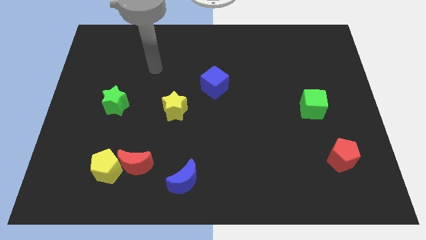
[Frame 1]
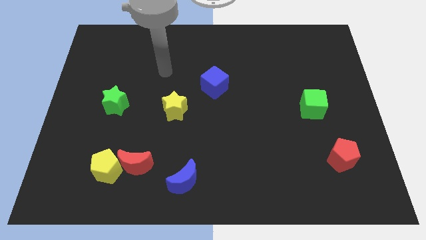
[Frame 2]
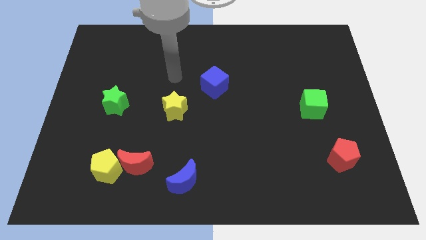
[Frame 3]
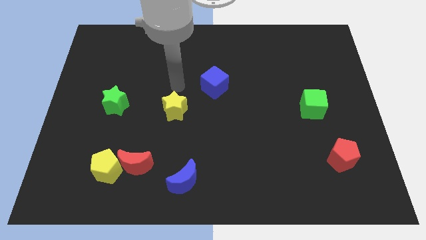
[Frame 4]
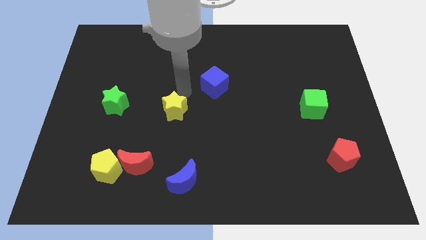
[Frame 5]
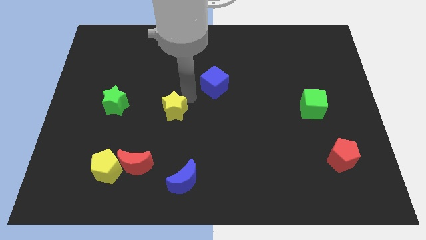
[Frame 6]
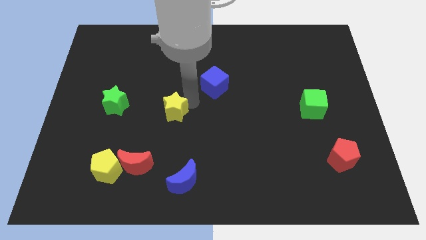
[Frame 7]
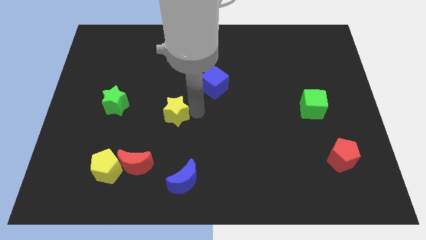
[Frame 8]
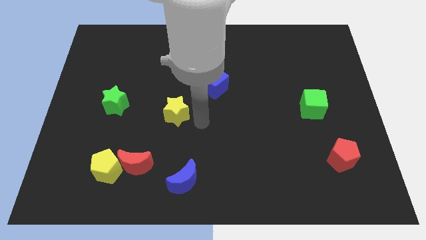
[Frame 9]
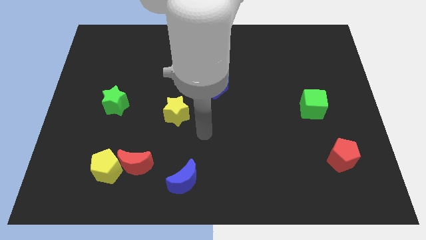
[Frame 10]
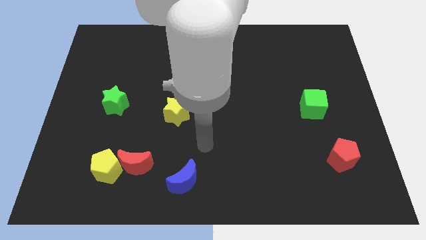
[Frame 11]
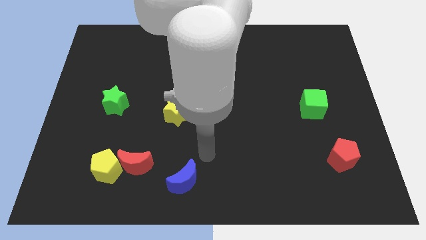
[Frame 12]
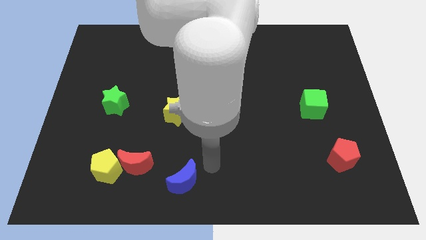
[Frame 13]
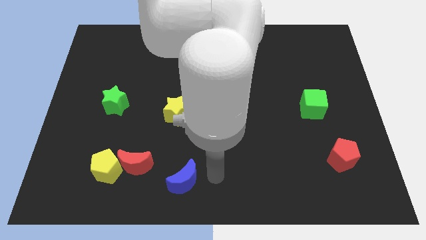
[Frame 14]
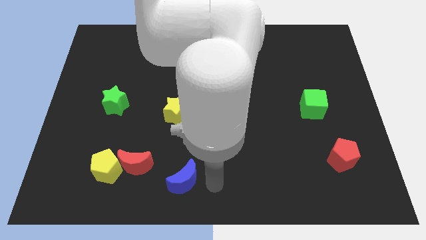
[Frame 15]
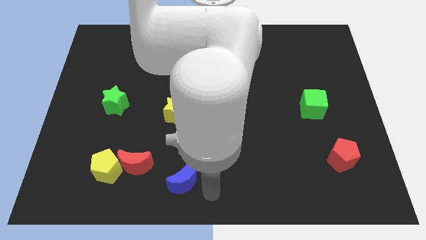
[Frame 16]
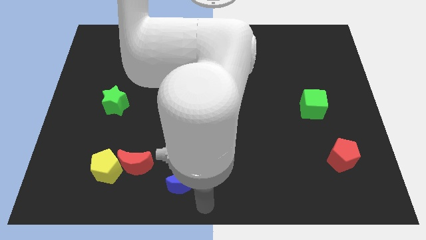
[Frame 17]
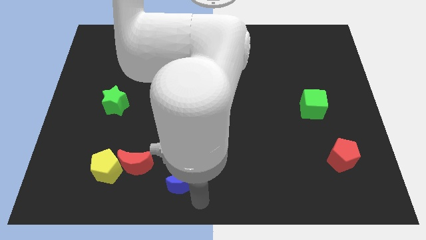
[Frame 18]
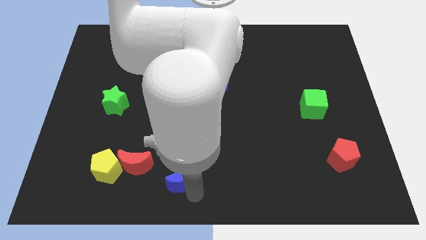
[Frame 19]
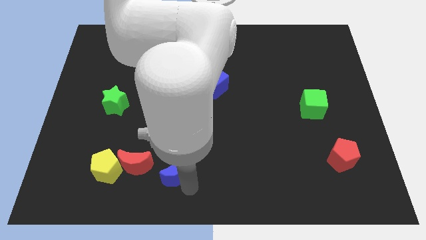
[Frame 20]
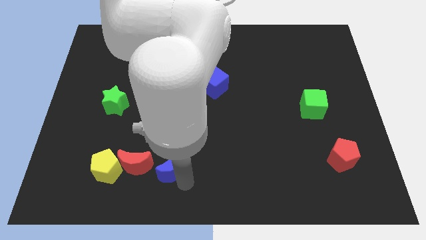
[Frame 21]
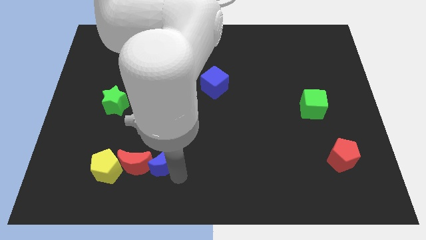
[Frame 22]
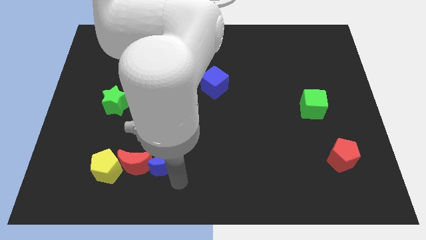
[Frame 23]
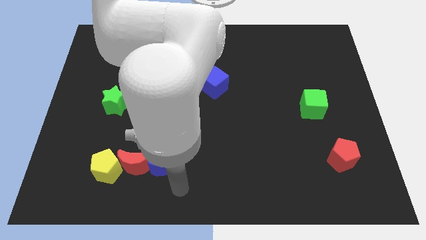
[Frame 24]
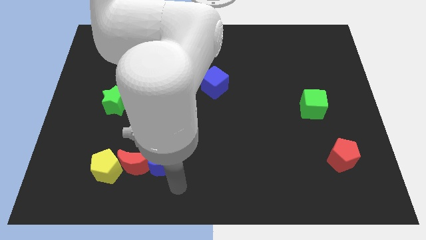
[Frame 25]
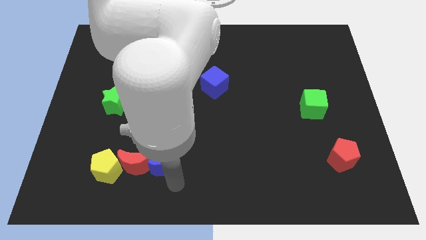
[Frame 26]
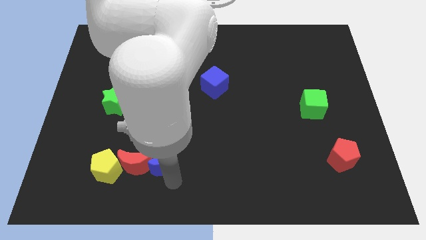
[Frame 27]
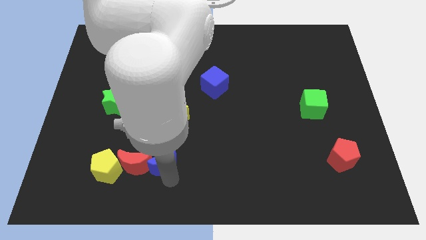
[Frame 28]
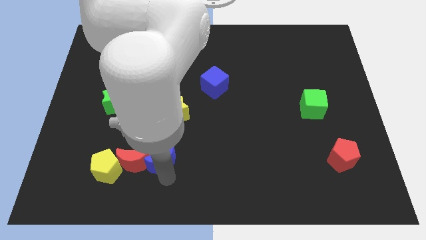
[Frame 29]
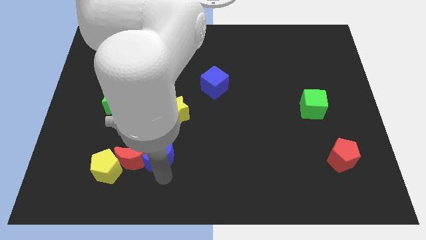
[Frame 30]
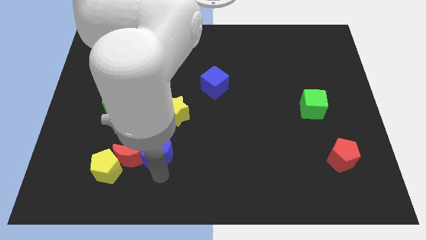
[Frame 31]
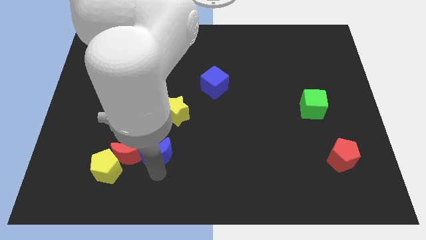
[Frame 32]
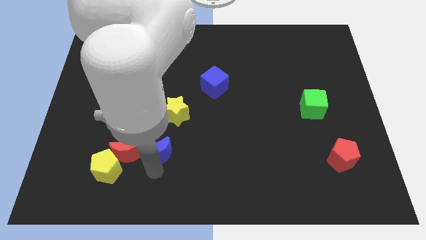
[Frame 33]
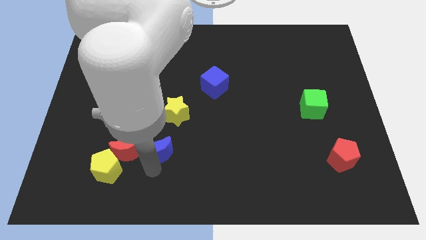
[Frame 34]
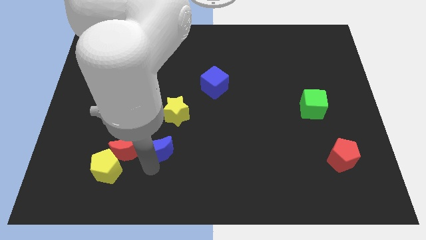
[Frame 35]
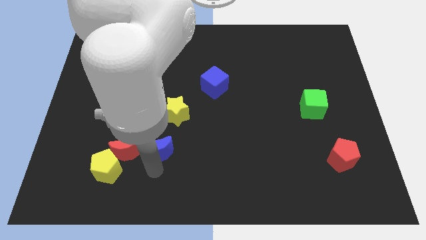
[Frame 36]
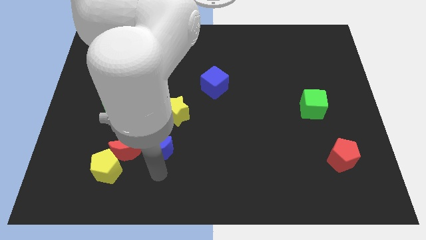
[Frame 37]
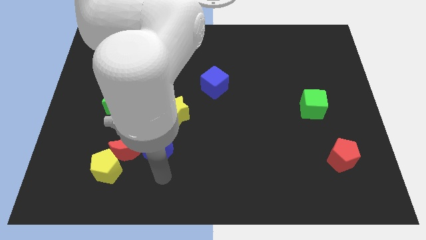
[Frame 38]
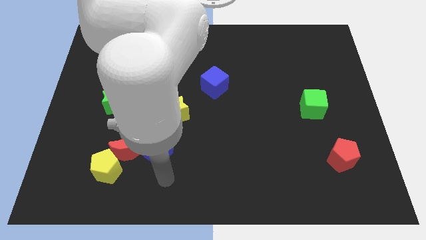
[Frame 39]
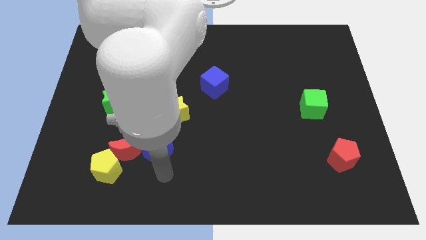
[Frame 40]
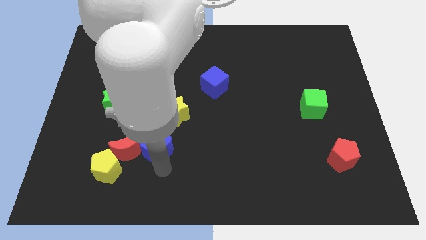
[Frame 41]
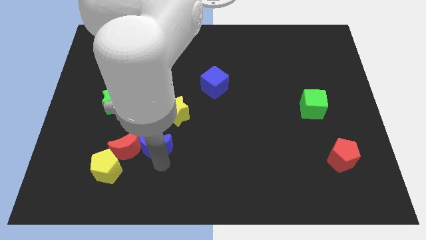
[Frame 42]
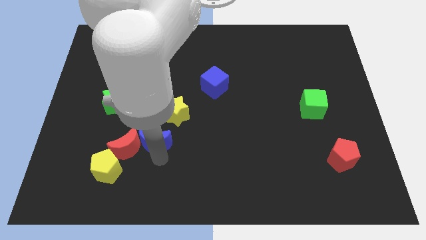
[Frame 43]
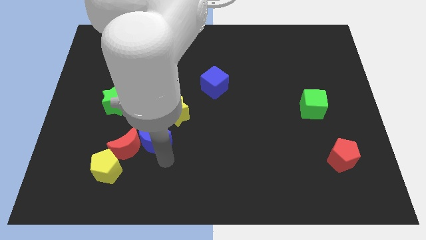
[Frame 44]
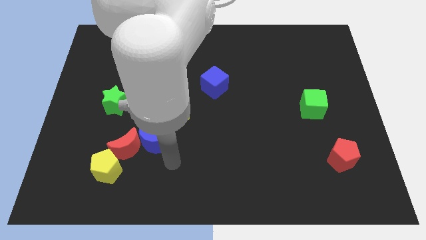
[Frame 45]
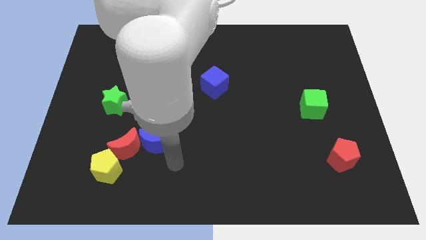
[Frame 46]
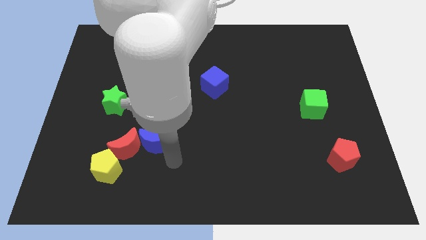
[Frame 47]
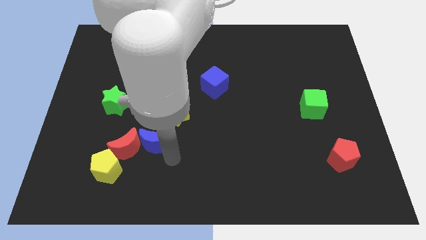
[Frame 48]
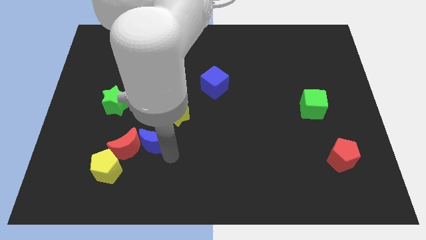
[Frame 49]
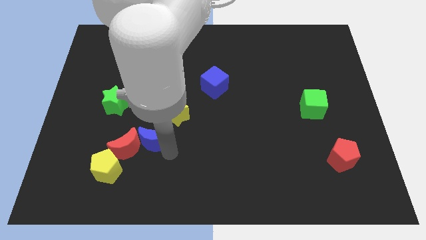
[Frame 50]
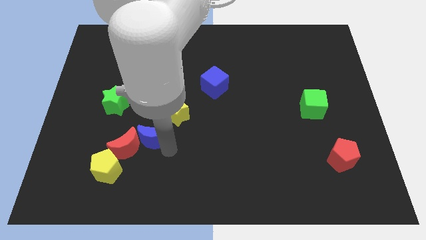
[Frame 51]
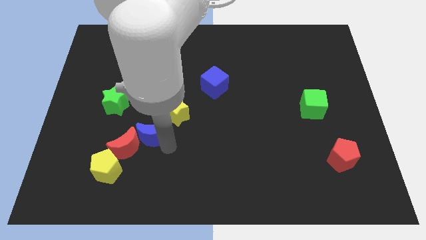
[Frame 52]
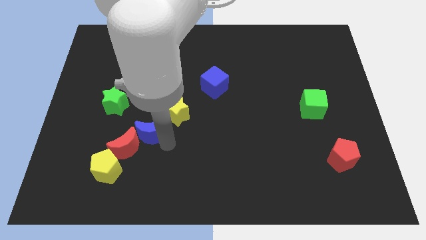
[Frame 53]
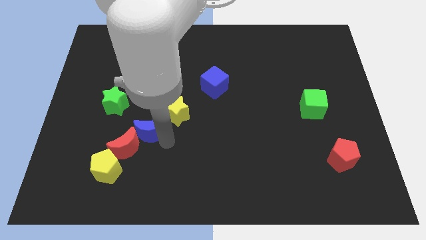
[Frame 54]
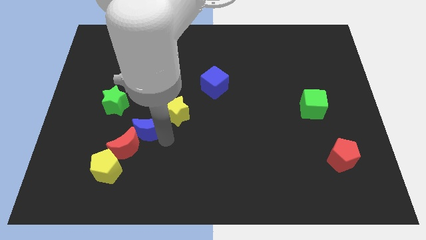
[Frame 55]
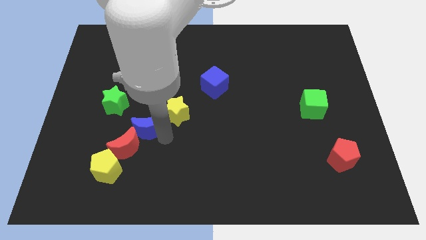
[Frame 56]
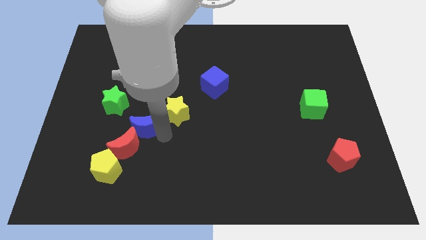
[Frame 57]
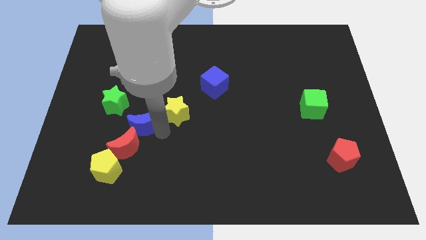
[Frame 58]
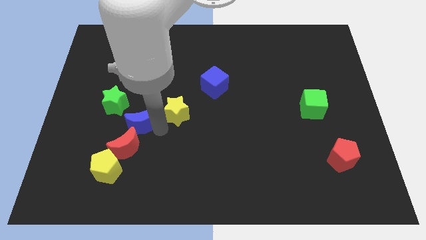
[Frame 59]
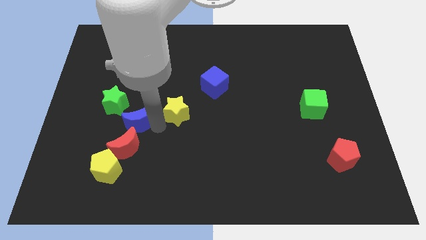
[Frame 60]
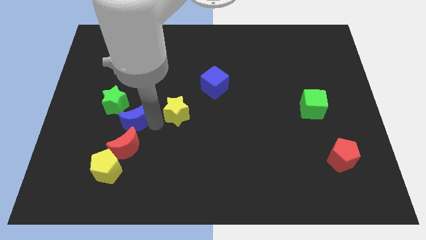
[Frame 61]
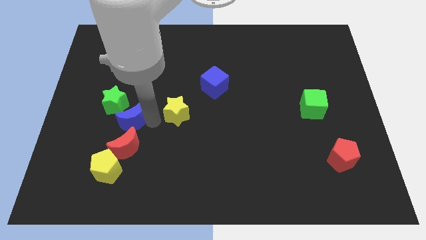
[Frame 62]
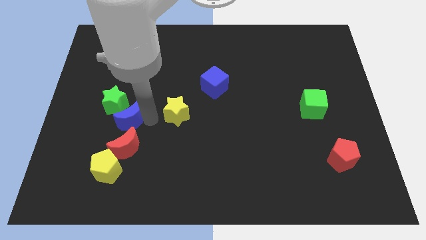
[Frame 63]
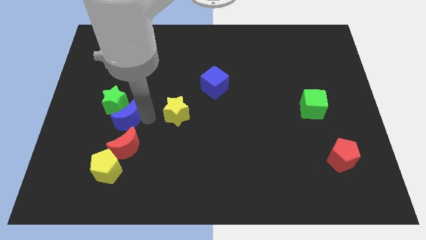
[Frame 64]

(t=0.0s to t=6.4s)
push the blue moon next to the green star

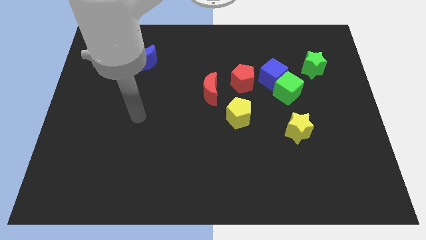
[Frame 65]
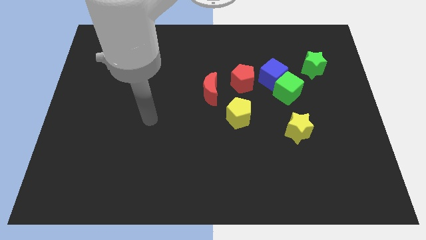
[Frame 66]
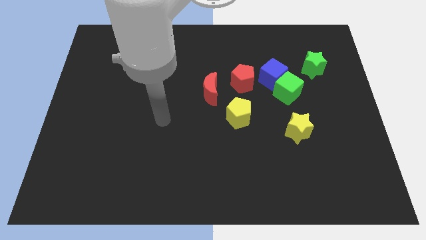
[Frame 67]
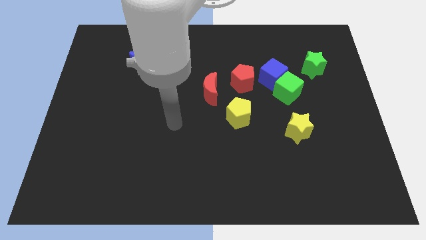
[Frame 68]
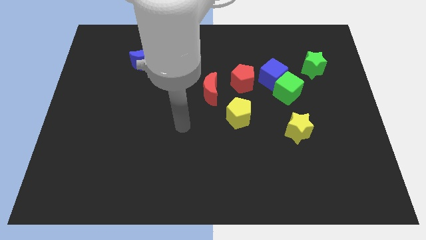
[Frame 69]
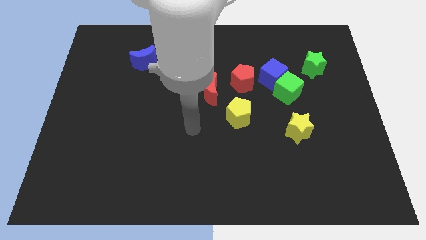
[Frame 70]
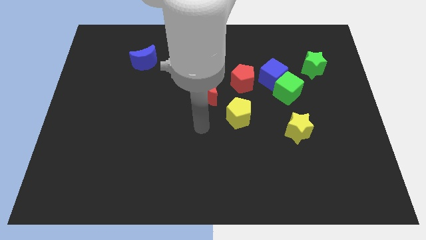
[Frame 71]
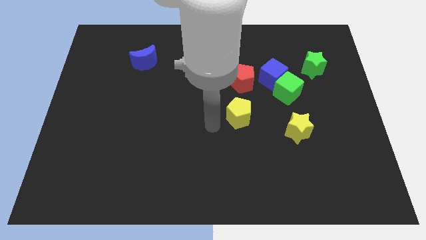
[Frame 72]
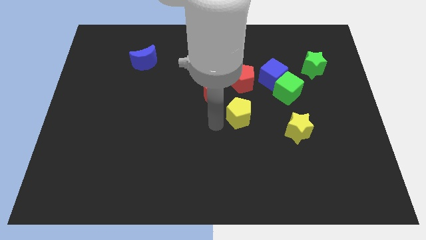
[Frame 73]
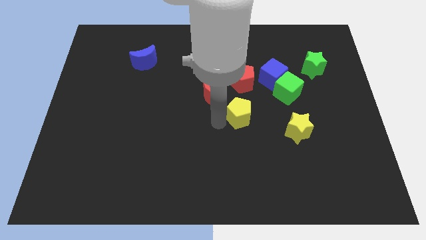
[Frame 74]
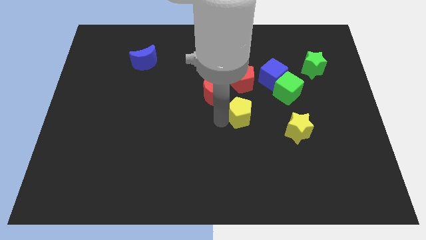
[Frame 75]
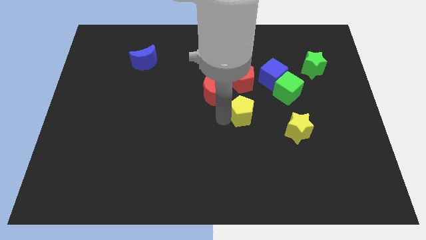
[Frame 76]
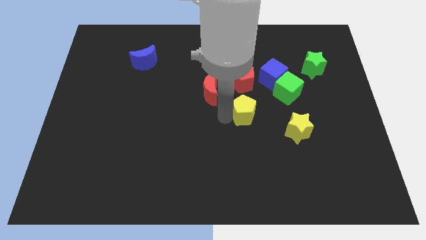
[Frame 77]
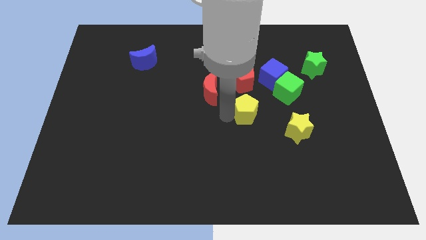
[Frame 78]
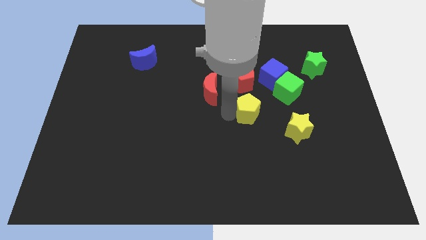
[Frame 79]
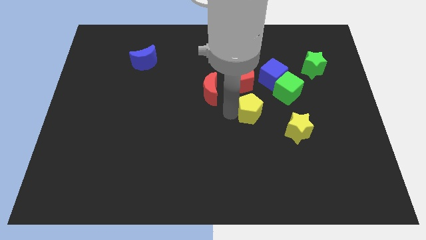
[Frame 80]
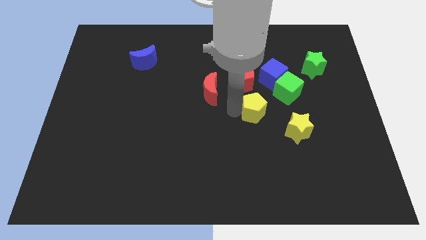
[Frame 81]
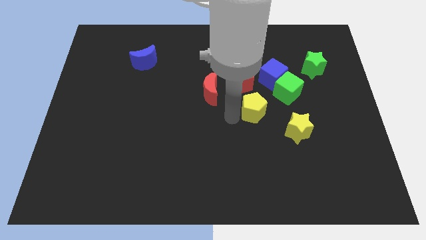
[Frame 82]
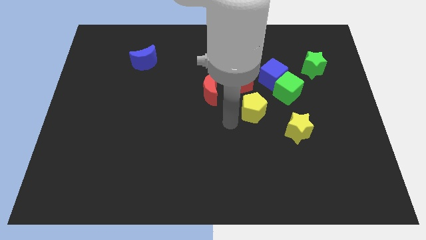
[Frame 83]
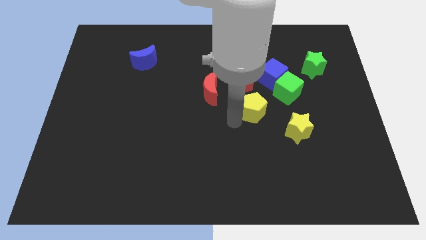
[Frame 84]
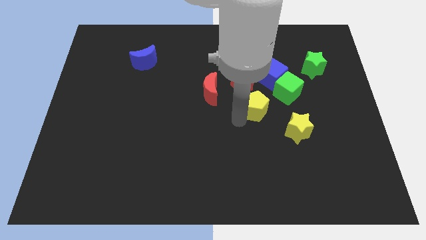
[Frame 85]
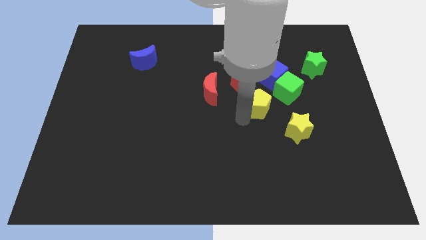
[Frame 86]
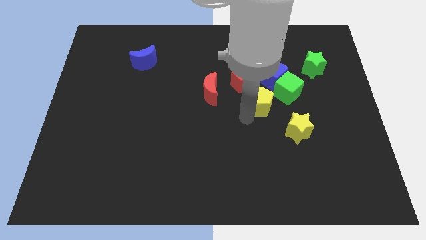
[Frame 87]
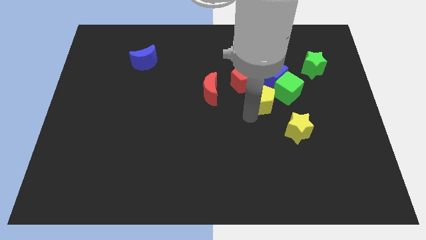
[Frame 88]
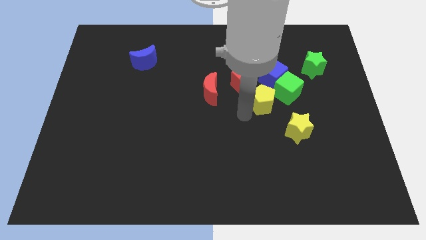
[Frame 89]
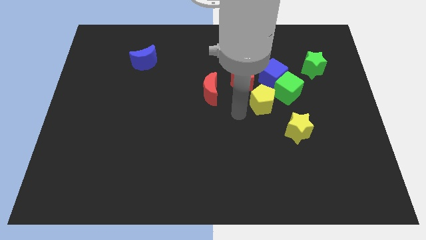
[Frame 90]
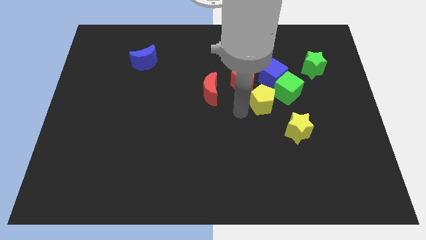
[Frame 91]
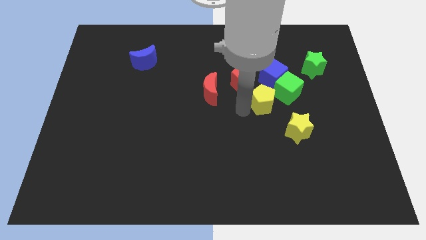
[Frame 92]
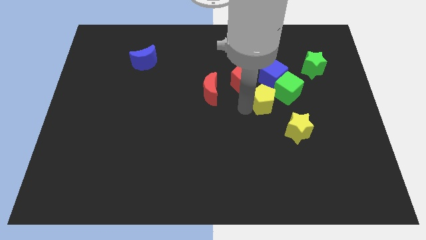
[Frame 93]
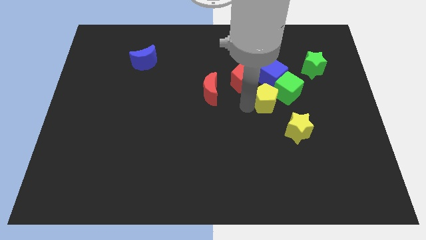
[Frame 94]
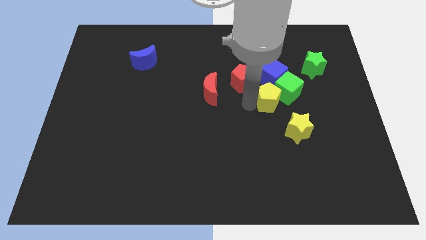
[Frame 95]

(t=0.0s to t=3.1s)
push the yellow pentagon close to the green cube
